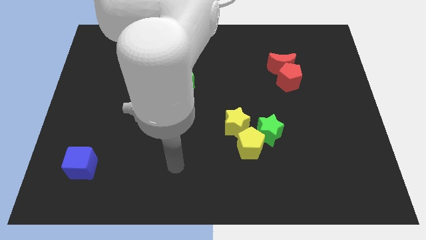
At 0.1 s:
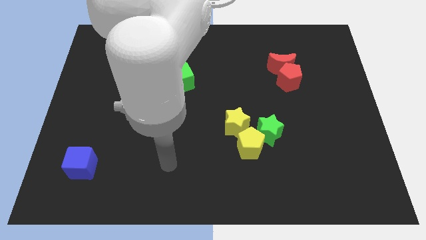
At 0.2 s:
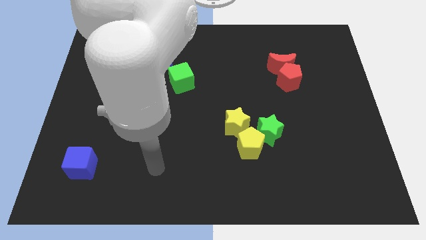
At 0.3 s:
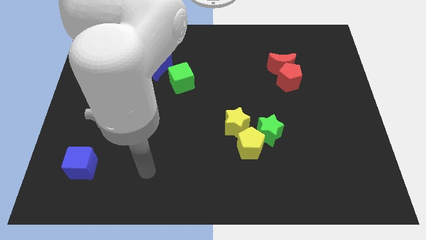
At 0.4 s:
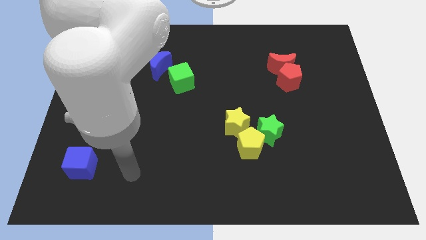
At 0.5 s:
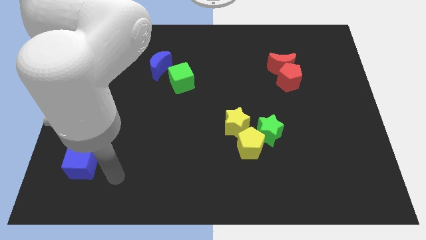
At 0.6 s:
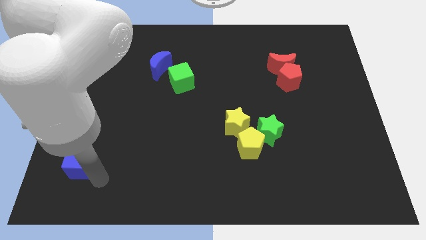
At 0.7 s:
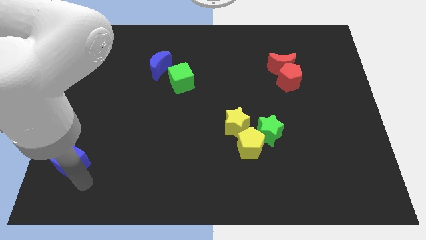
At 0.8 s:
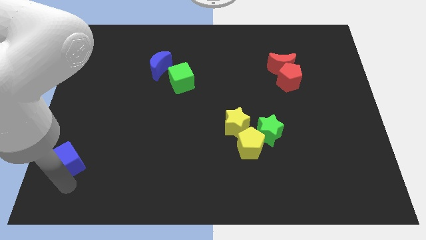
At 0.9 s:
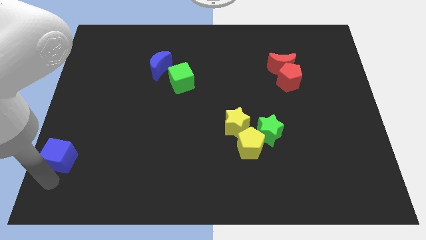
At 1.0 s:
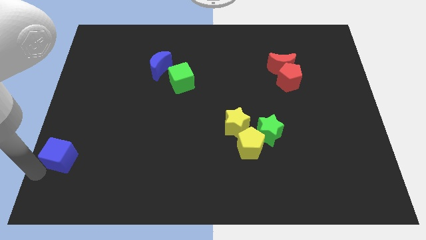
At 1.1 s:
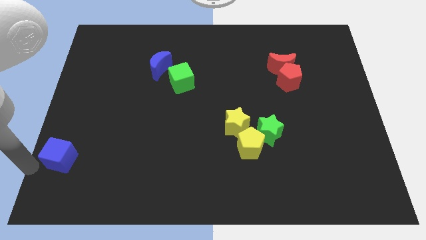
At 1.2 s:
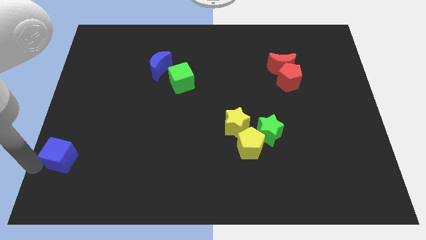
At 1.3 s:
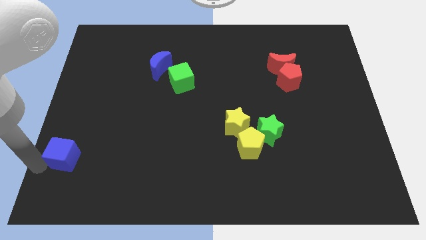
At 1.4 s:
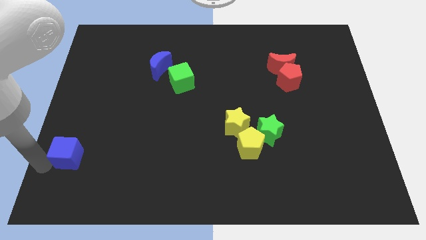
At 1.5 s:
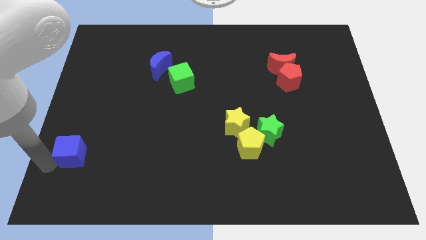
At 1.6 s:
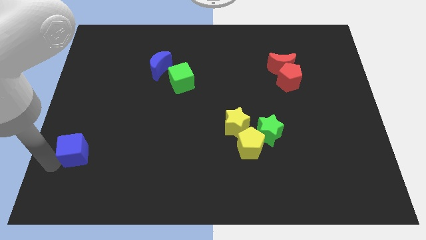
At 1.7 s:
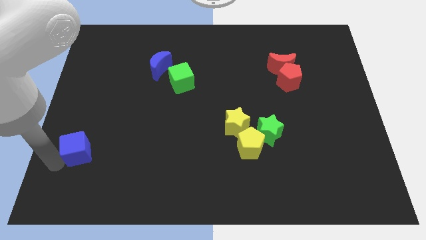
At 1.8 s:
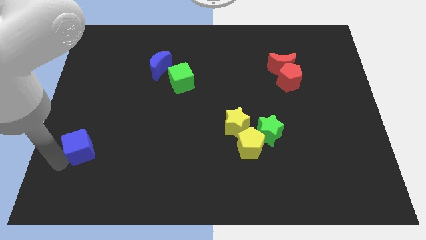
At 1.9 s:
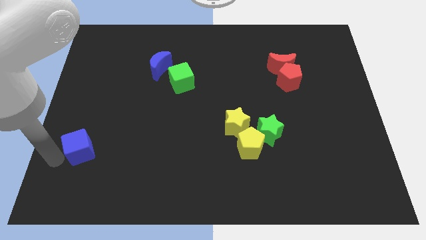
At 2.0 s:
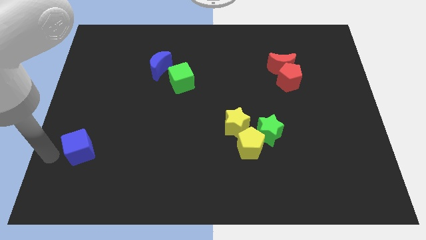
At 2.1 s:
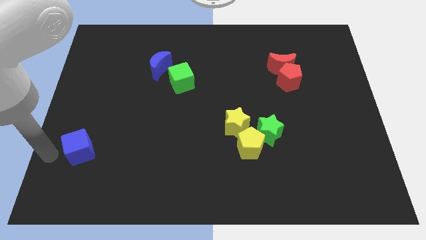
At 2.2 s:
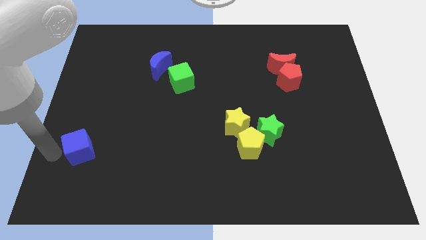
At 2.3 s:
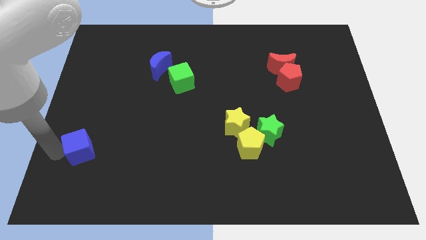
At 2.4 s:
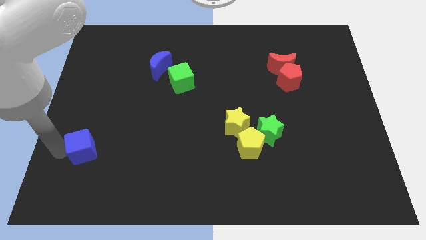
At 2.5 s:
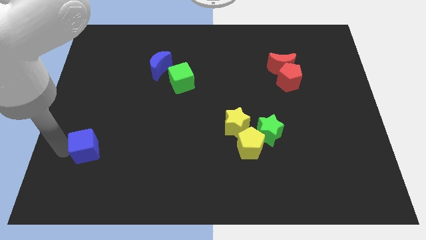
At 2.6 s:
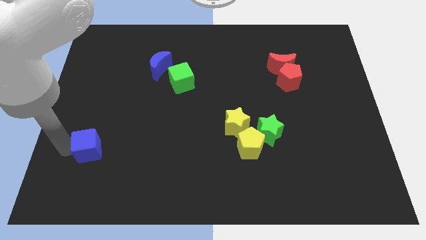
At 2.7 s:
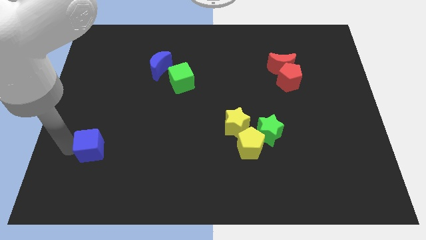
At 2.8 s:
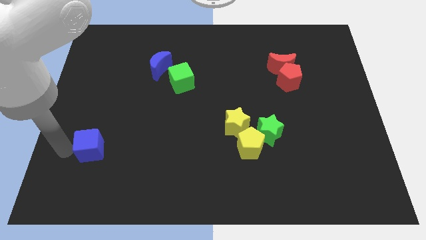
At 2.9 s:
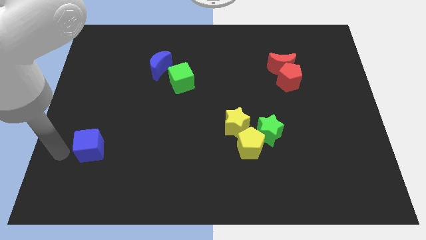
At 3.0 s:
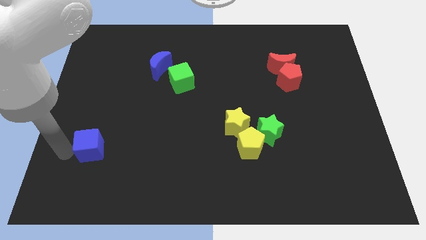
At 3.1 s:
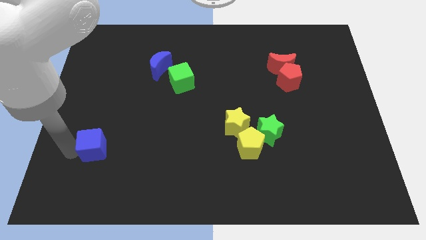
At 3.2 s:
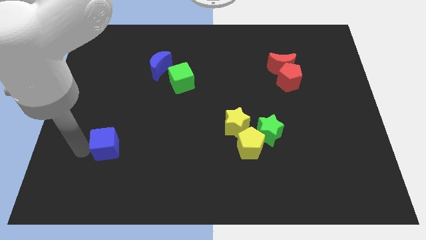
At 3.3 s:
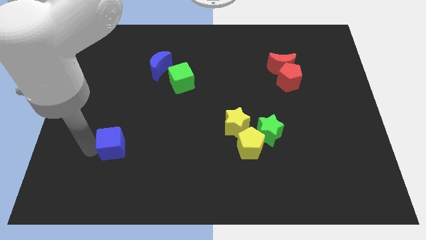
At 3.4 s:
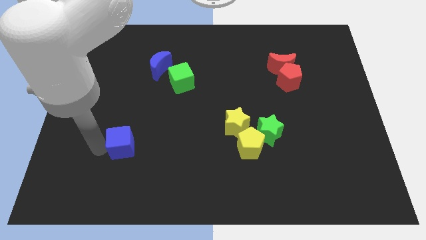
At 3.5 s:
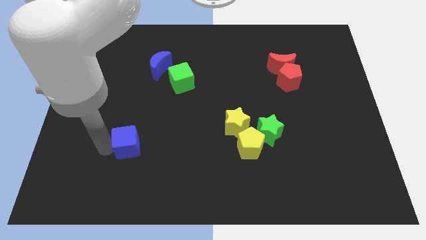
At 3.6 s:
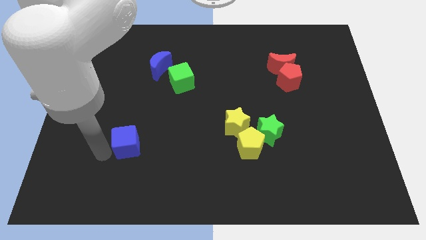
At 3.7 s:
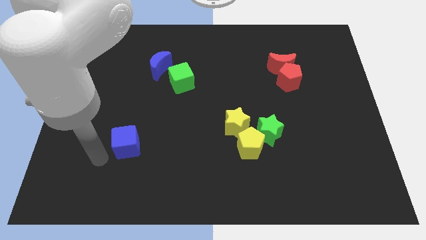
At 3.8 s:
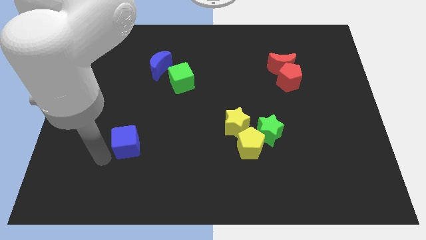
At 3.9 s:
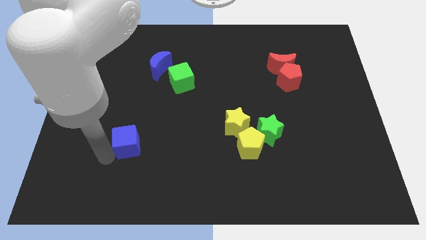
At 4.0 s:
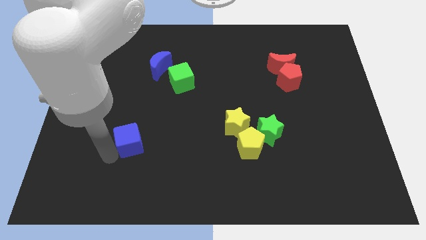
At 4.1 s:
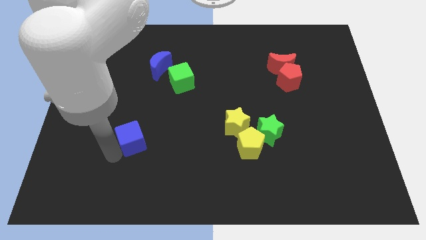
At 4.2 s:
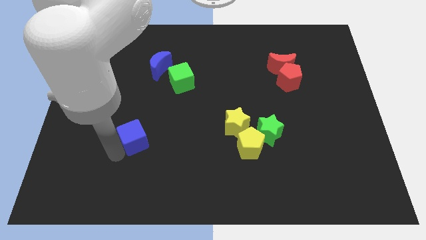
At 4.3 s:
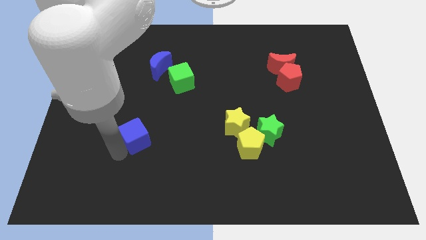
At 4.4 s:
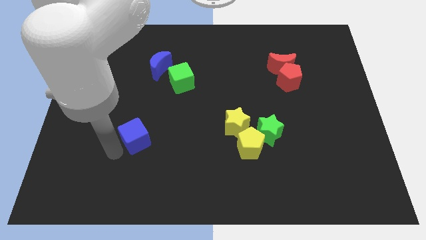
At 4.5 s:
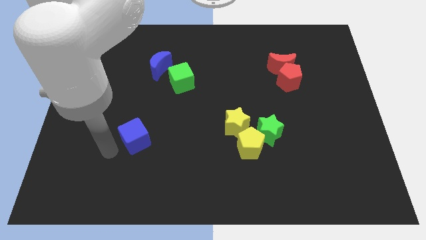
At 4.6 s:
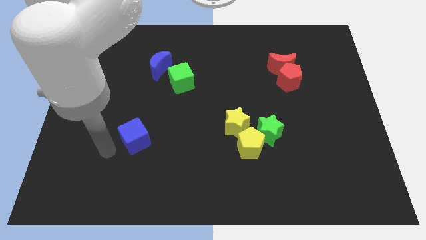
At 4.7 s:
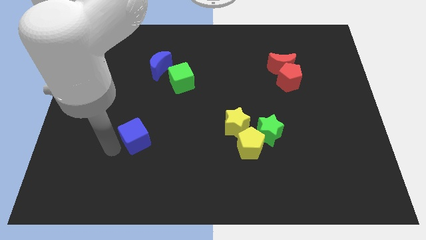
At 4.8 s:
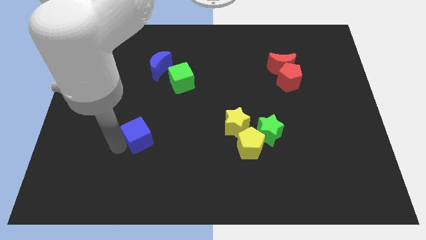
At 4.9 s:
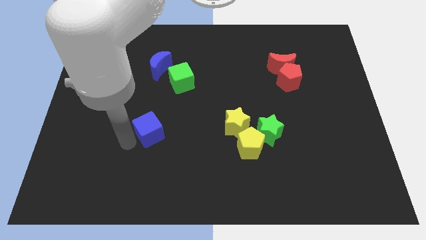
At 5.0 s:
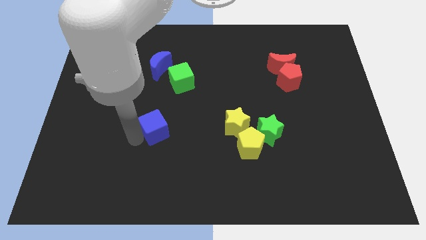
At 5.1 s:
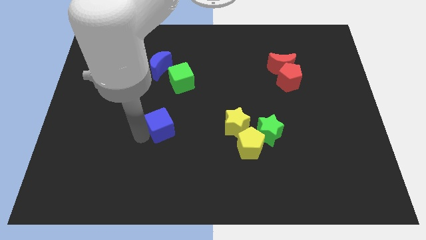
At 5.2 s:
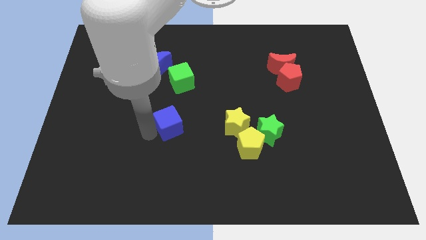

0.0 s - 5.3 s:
put the blue cube to the center

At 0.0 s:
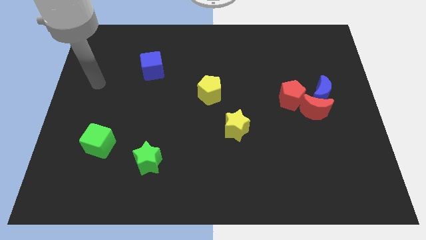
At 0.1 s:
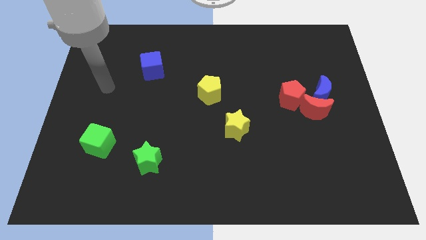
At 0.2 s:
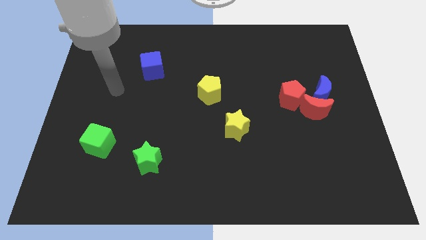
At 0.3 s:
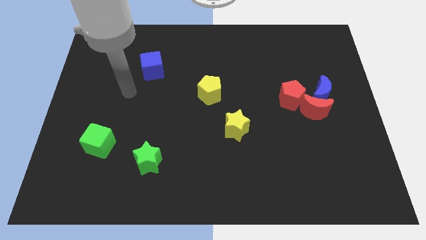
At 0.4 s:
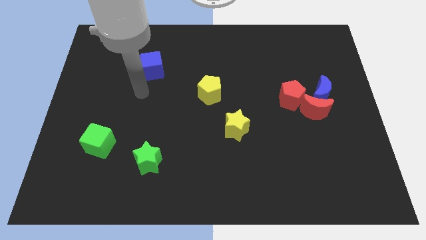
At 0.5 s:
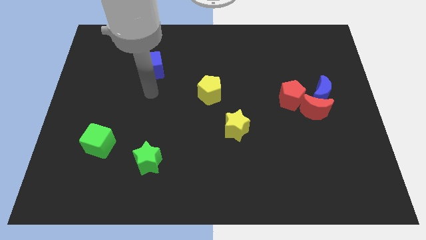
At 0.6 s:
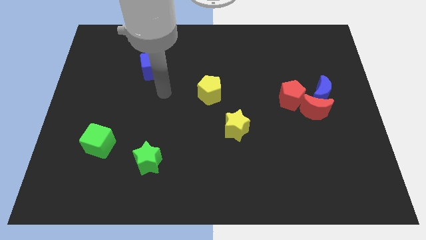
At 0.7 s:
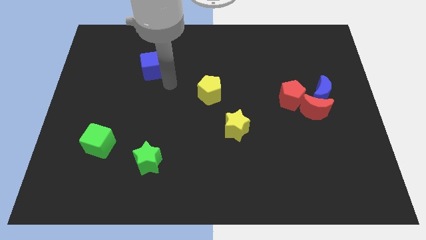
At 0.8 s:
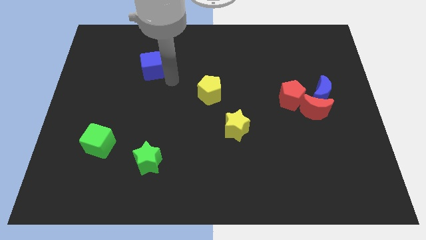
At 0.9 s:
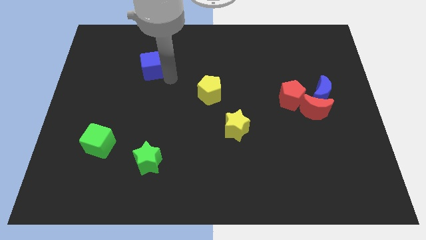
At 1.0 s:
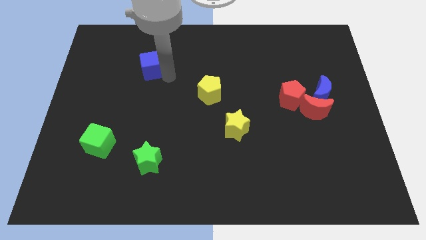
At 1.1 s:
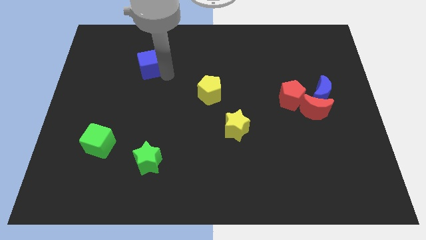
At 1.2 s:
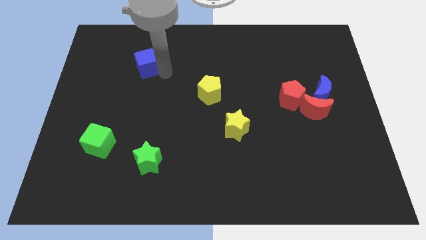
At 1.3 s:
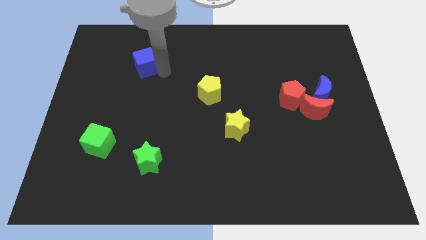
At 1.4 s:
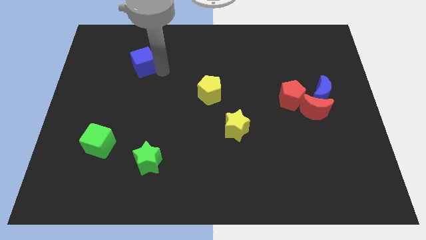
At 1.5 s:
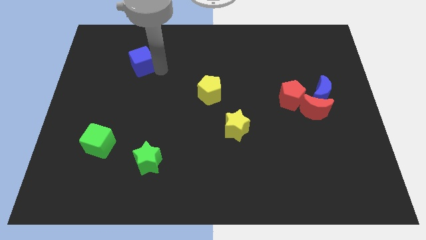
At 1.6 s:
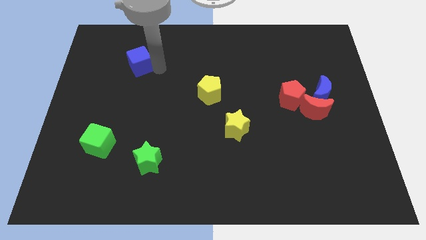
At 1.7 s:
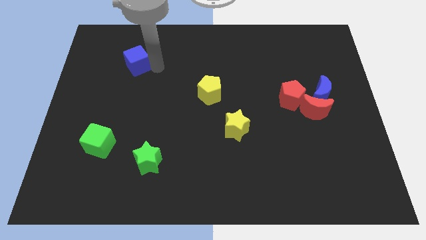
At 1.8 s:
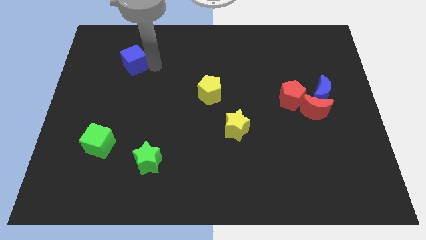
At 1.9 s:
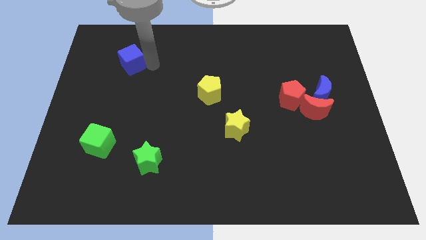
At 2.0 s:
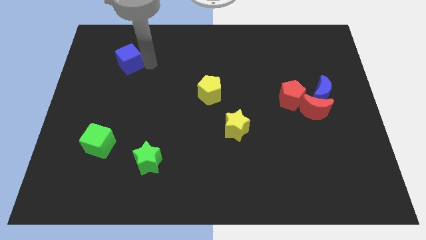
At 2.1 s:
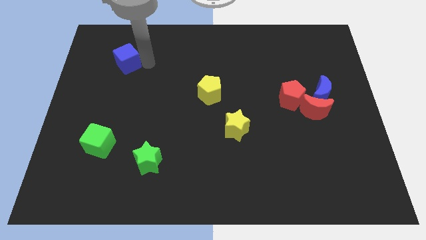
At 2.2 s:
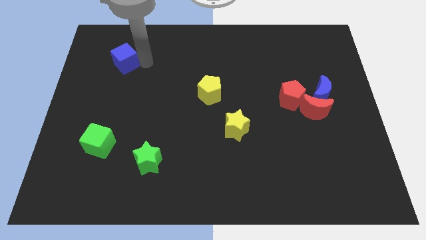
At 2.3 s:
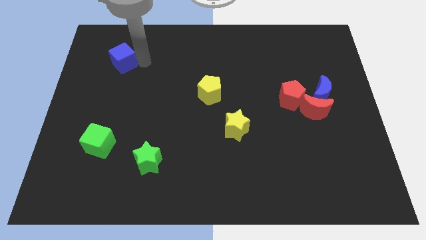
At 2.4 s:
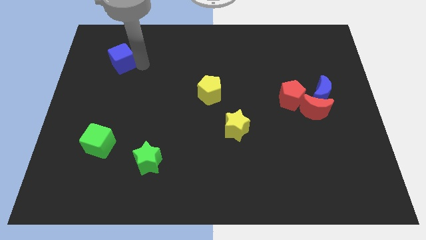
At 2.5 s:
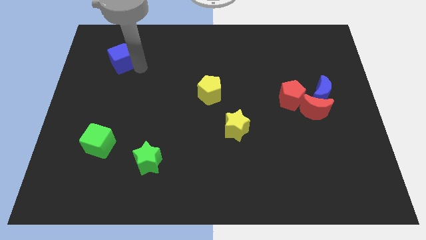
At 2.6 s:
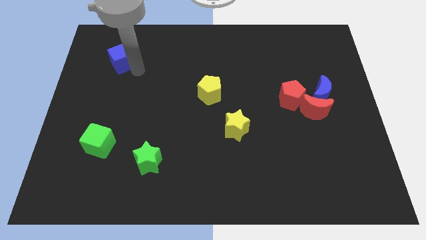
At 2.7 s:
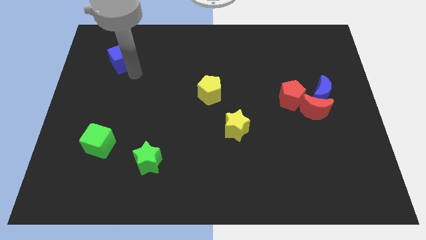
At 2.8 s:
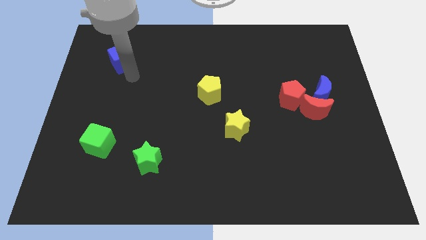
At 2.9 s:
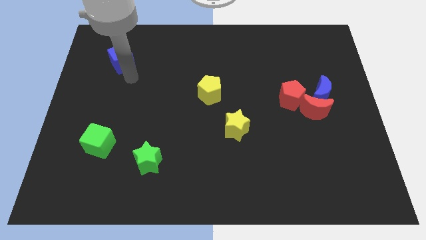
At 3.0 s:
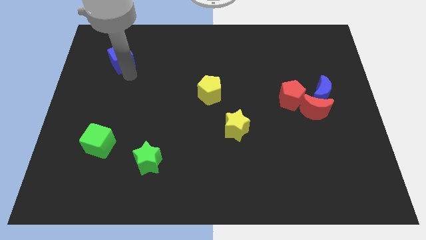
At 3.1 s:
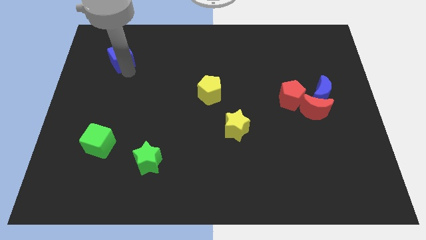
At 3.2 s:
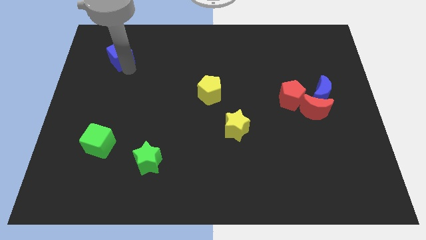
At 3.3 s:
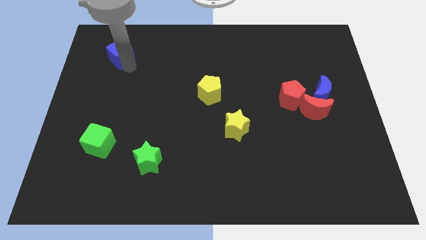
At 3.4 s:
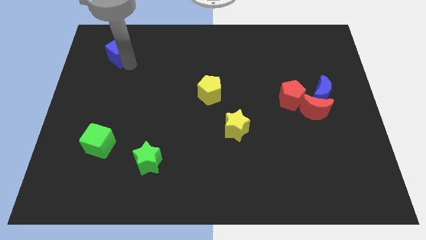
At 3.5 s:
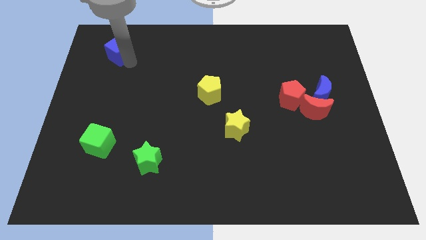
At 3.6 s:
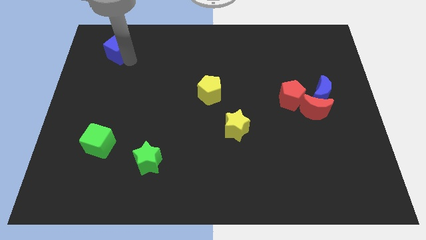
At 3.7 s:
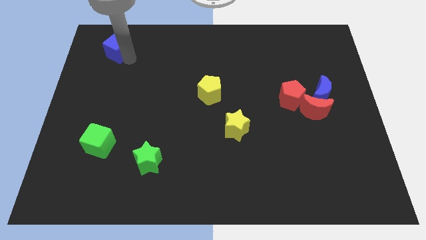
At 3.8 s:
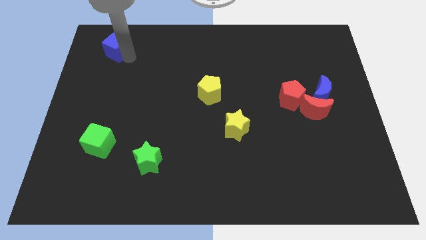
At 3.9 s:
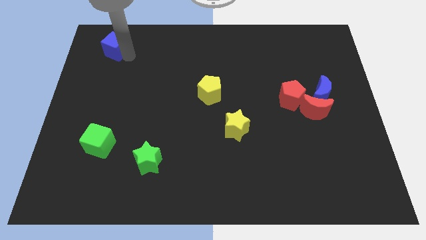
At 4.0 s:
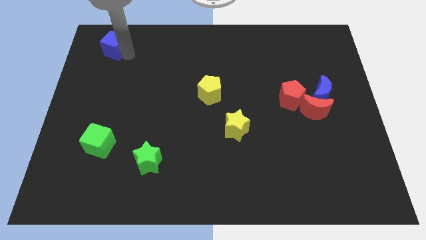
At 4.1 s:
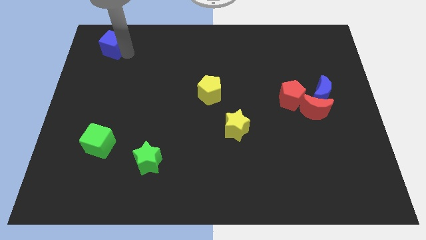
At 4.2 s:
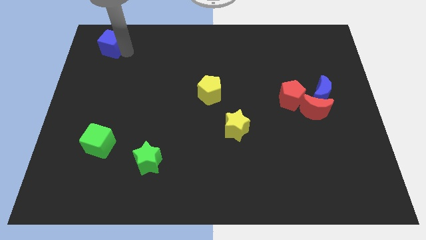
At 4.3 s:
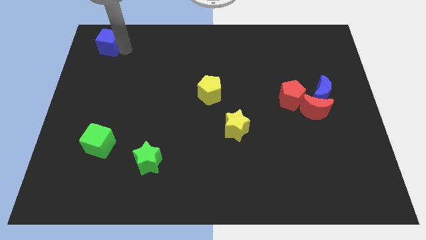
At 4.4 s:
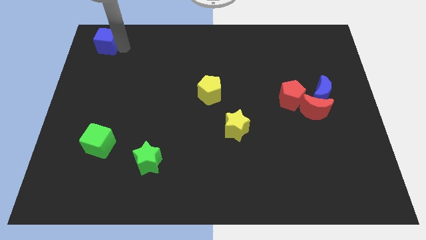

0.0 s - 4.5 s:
put the blue cube to the top left corner
